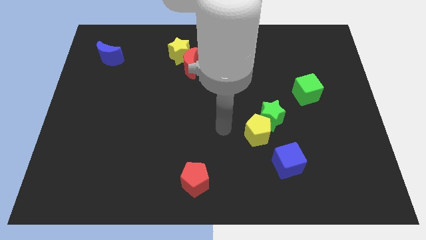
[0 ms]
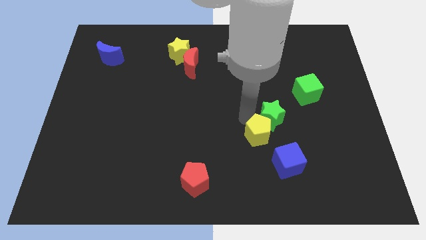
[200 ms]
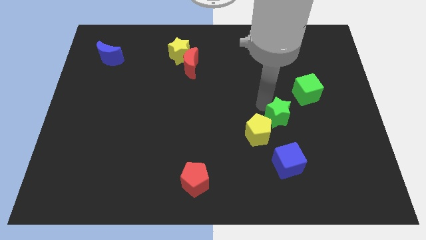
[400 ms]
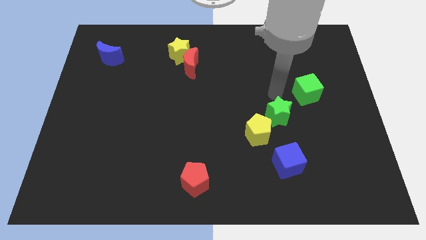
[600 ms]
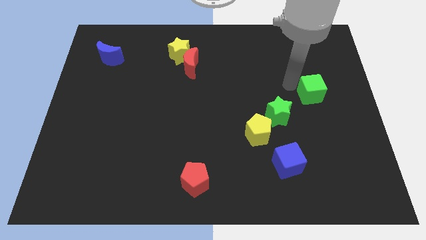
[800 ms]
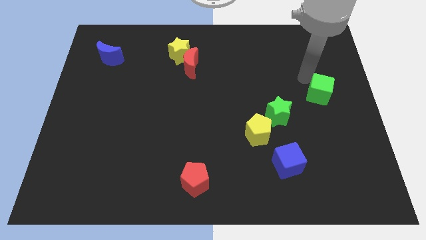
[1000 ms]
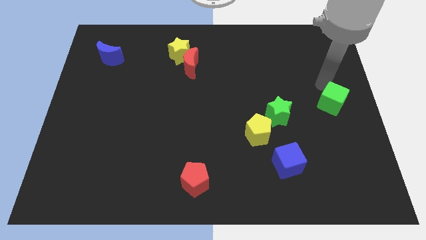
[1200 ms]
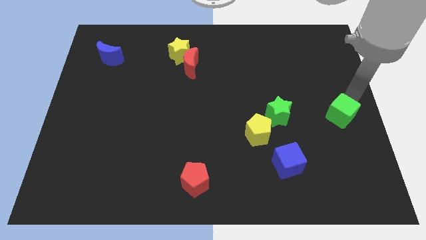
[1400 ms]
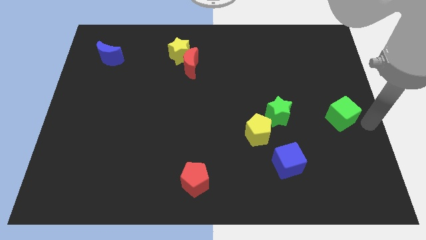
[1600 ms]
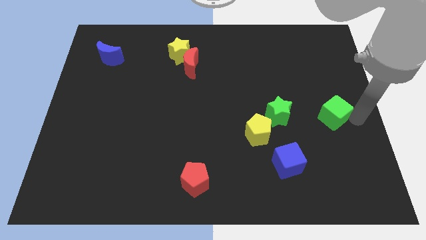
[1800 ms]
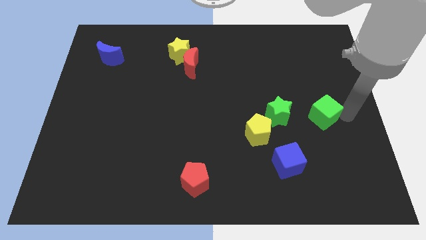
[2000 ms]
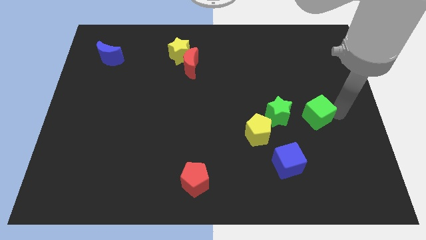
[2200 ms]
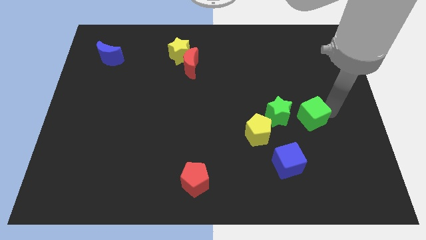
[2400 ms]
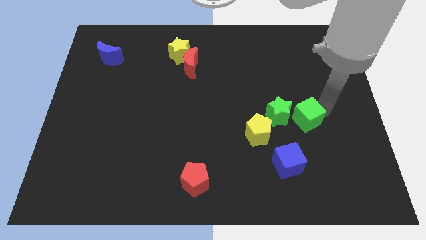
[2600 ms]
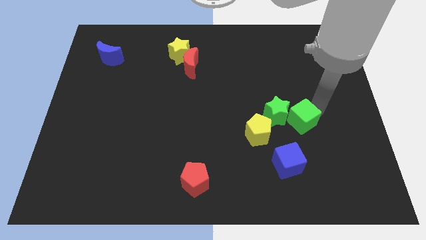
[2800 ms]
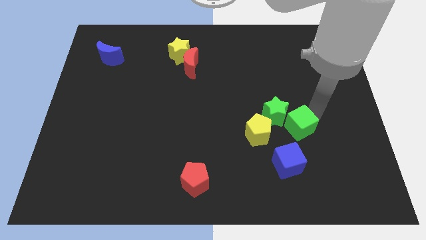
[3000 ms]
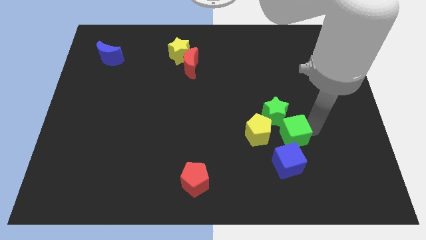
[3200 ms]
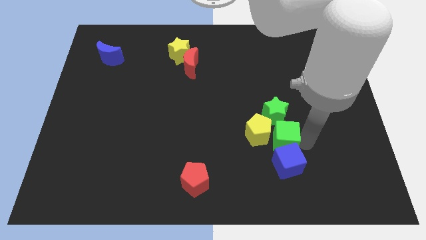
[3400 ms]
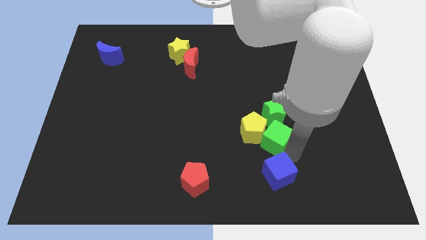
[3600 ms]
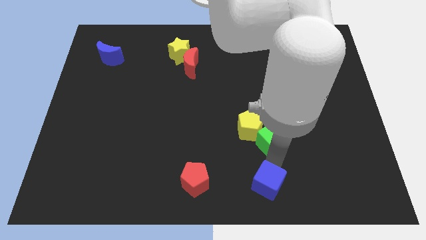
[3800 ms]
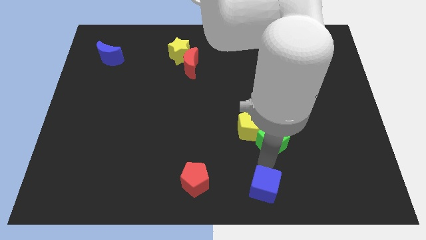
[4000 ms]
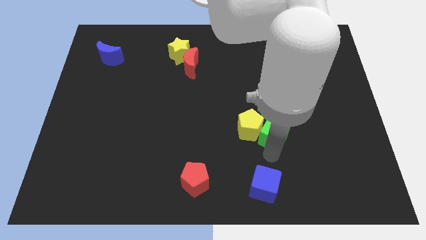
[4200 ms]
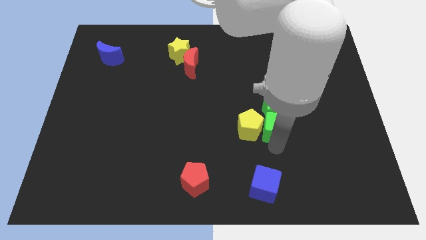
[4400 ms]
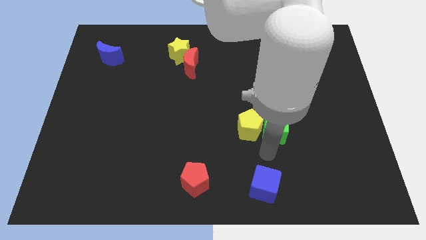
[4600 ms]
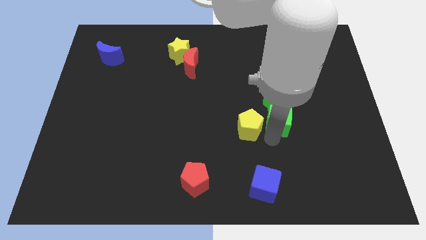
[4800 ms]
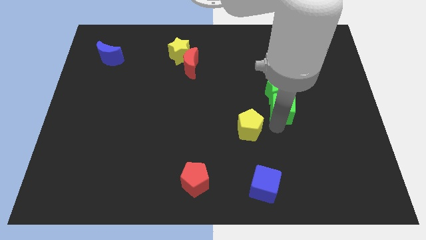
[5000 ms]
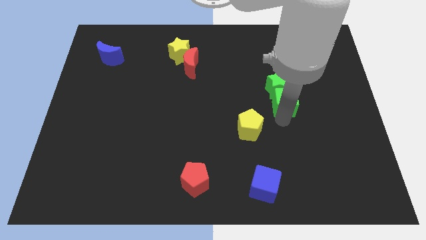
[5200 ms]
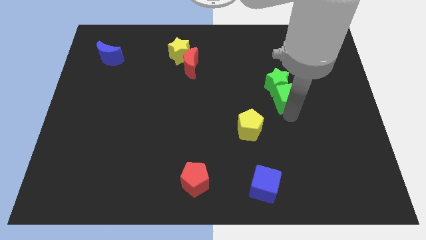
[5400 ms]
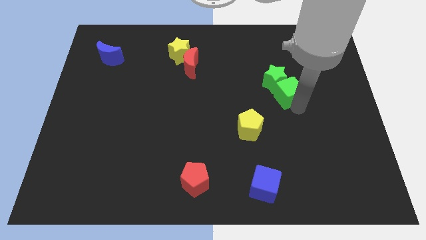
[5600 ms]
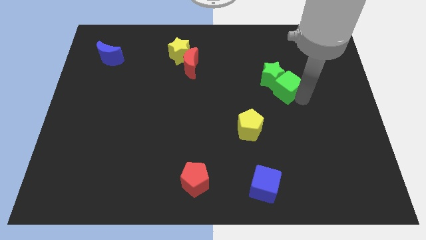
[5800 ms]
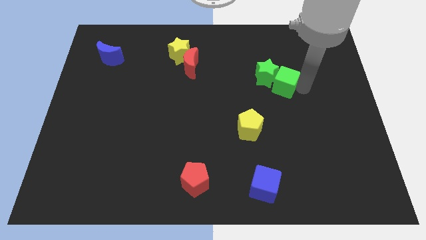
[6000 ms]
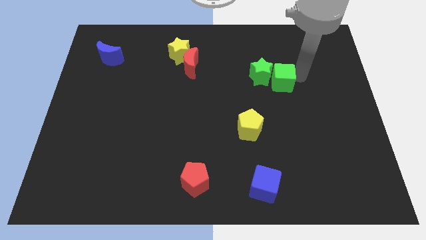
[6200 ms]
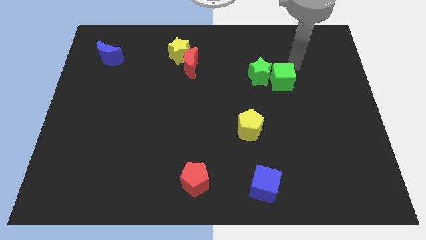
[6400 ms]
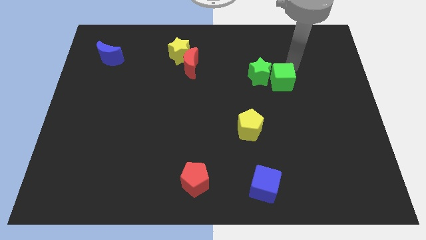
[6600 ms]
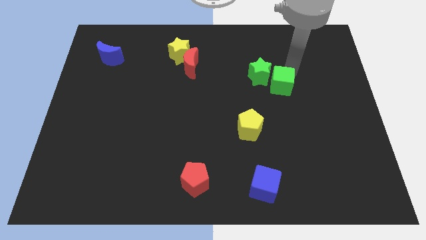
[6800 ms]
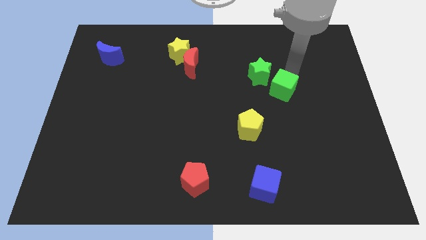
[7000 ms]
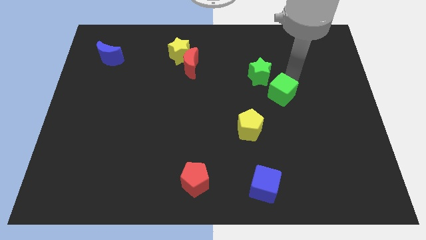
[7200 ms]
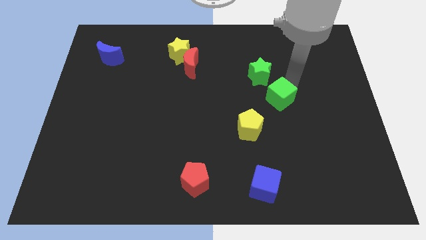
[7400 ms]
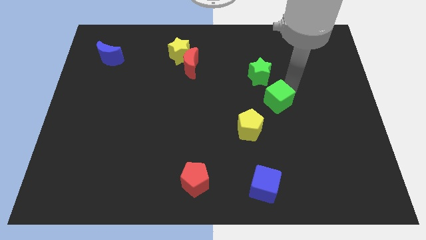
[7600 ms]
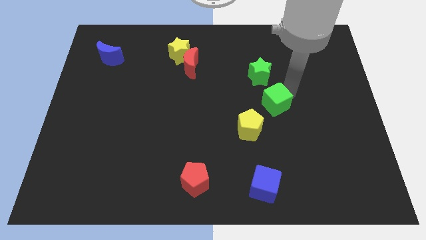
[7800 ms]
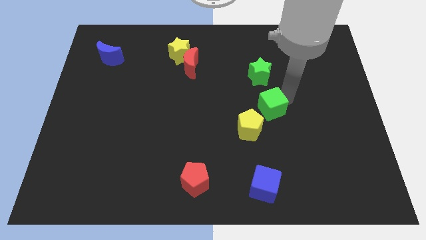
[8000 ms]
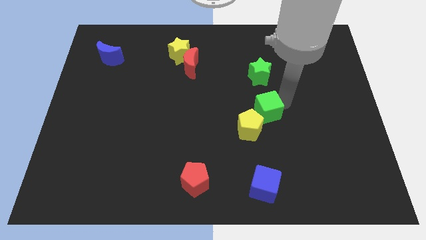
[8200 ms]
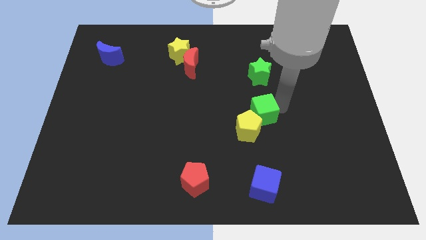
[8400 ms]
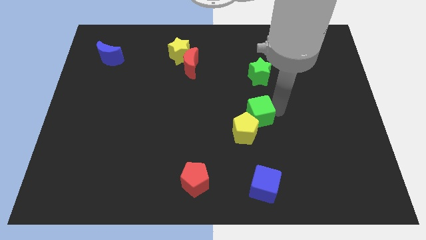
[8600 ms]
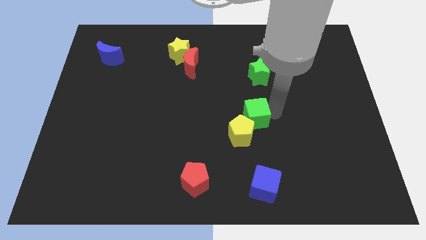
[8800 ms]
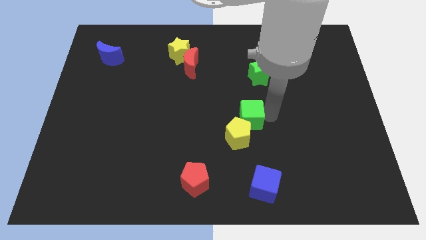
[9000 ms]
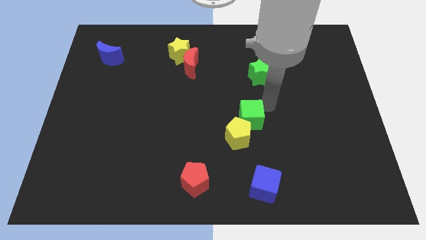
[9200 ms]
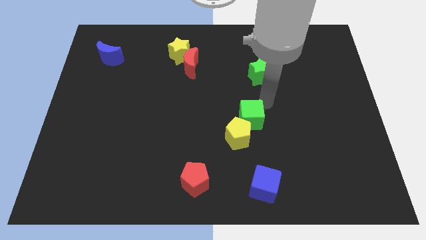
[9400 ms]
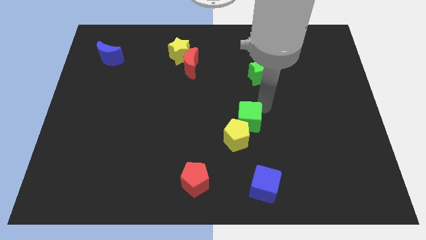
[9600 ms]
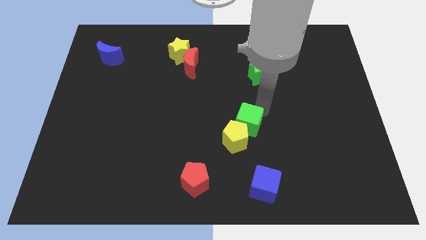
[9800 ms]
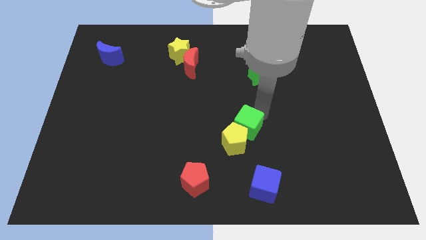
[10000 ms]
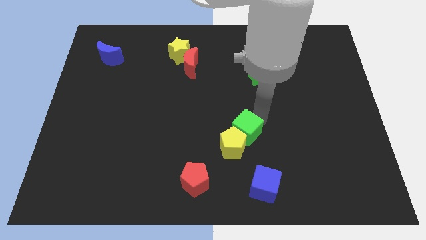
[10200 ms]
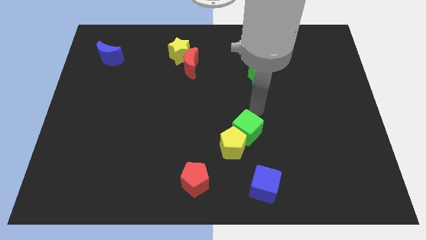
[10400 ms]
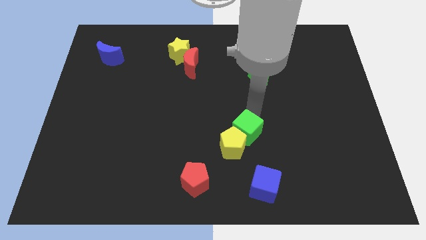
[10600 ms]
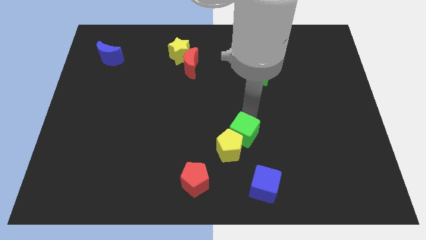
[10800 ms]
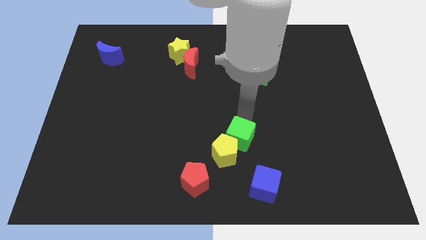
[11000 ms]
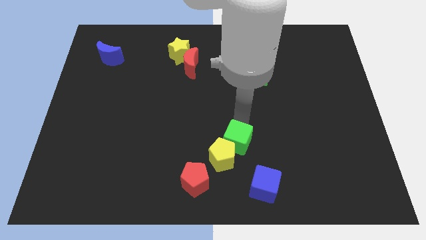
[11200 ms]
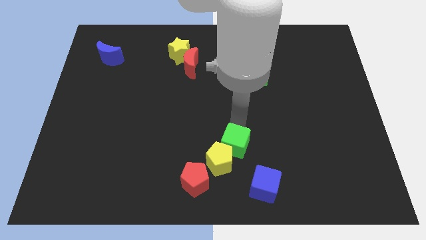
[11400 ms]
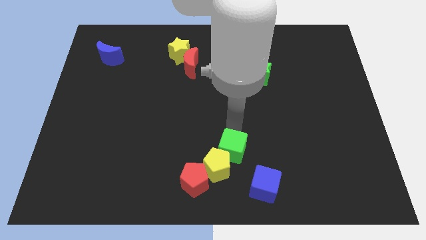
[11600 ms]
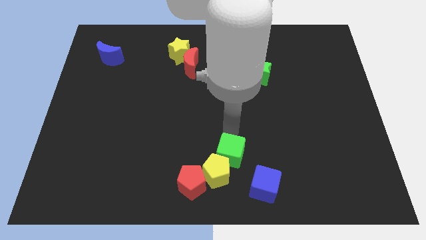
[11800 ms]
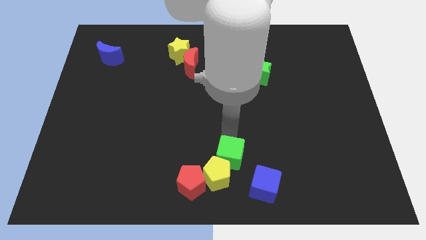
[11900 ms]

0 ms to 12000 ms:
slide the green cube to the bottom side

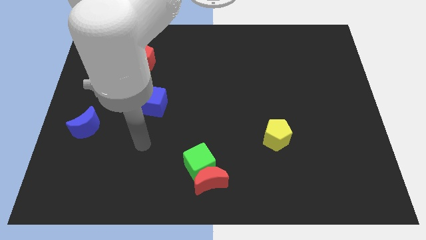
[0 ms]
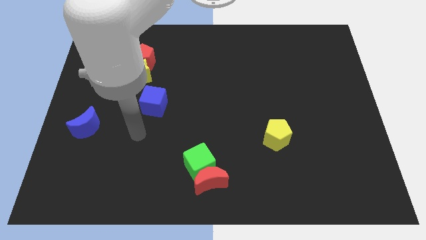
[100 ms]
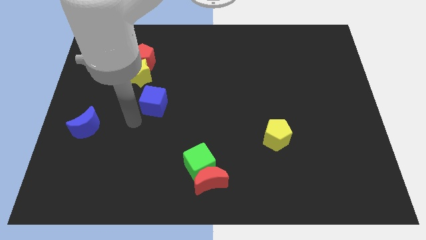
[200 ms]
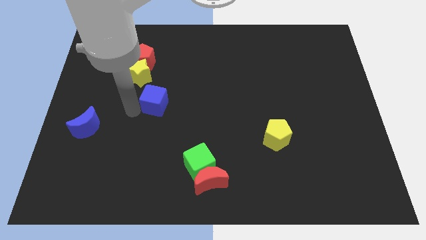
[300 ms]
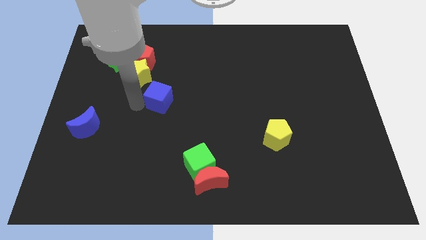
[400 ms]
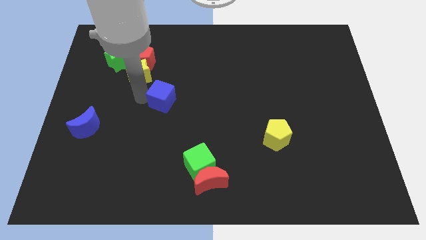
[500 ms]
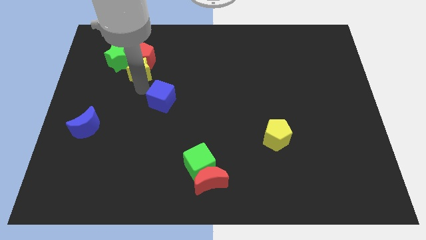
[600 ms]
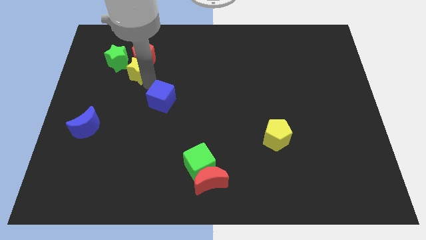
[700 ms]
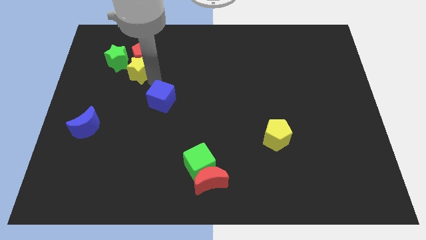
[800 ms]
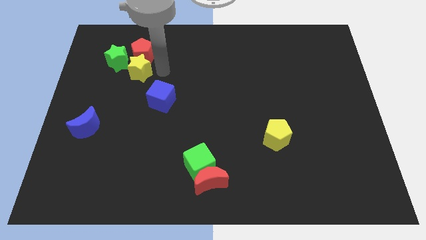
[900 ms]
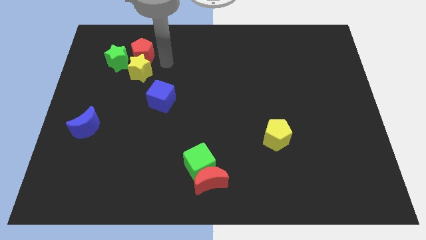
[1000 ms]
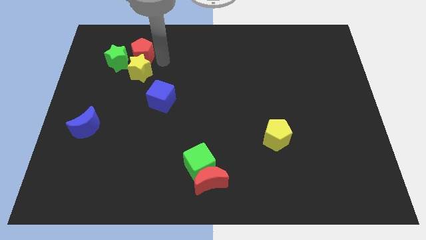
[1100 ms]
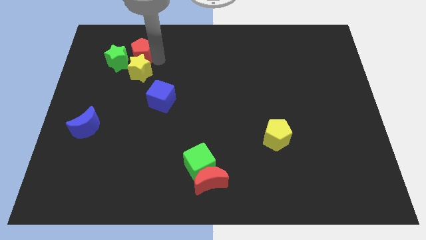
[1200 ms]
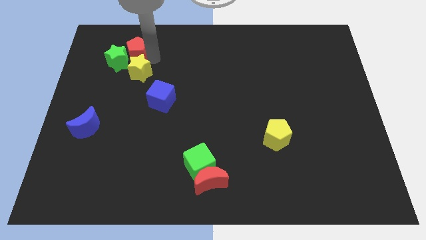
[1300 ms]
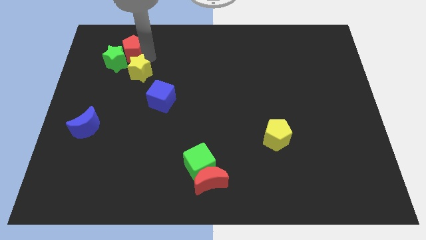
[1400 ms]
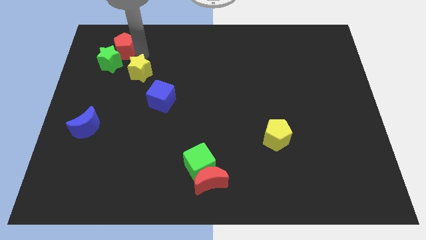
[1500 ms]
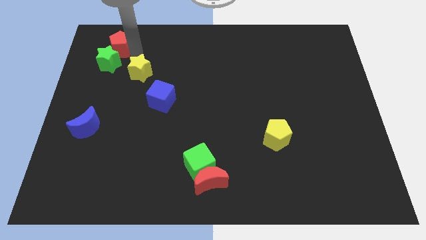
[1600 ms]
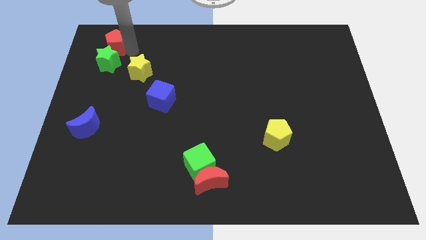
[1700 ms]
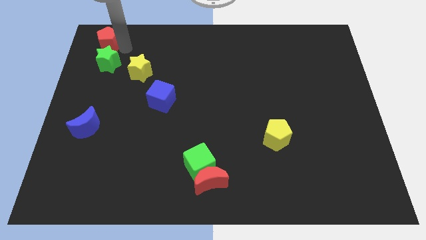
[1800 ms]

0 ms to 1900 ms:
put the red pentagon to the top left
